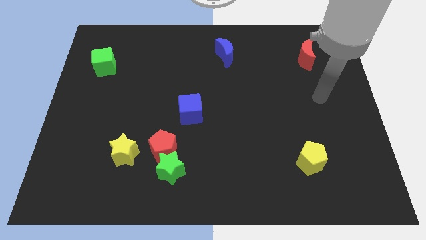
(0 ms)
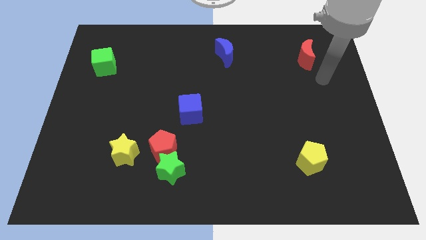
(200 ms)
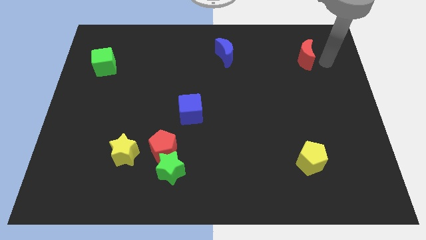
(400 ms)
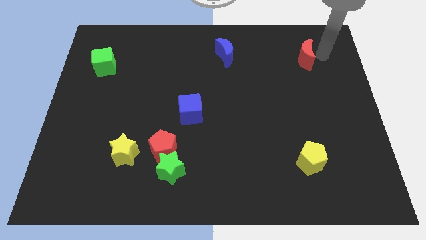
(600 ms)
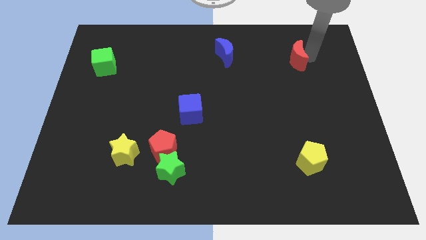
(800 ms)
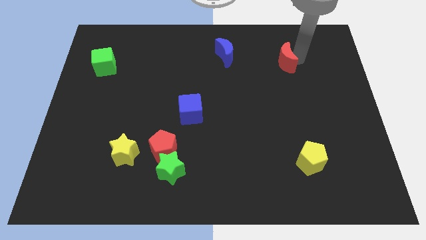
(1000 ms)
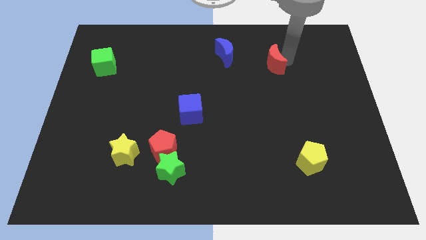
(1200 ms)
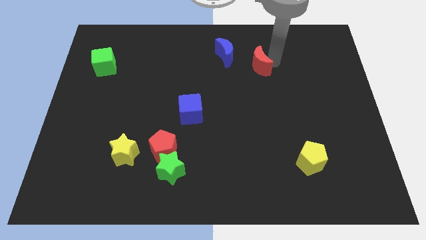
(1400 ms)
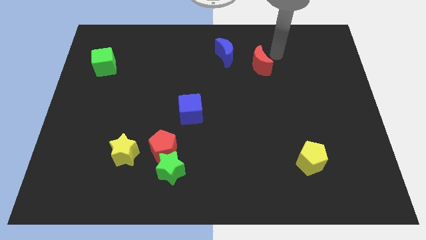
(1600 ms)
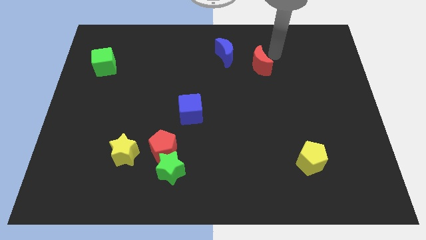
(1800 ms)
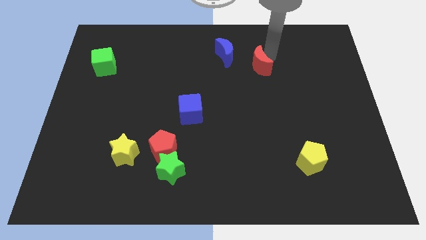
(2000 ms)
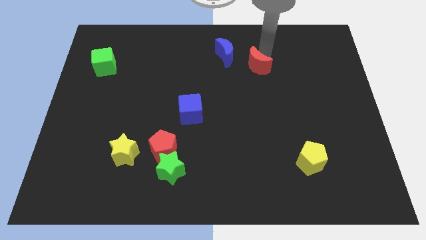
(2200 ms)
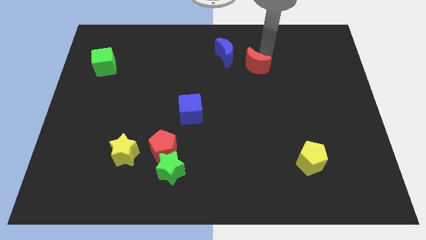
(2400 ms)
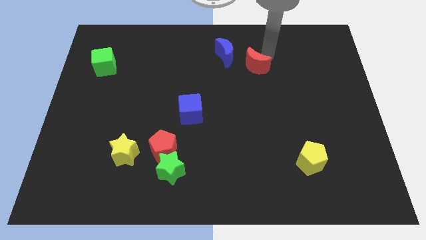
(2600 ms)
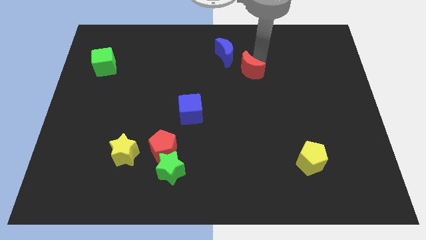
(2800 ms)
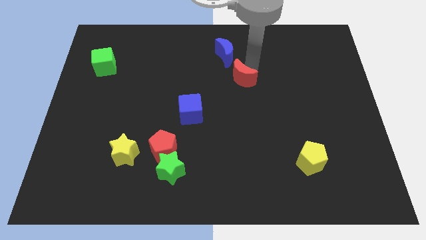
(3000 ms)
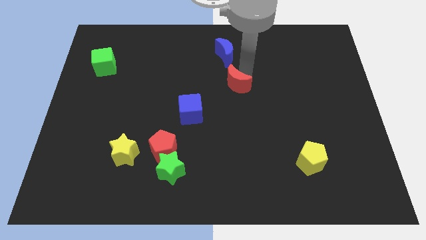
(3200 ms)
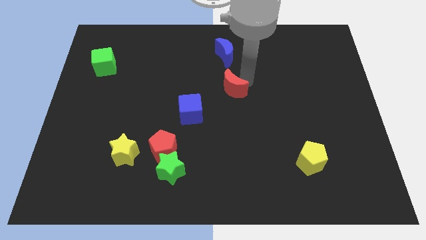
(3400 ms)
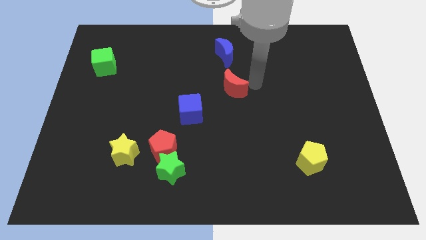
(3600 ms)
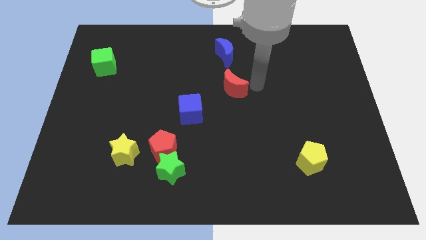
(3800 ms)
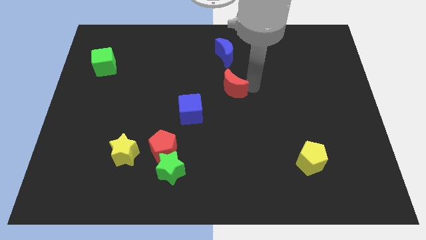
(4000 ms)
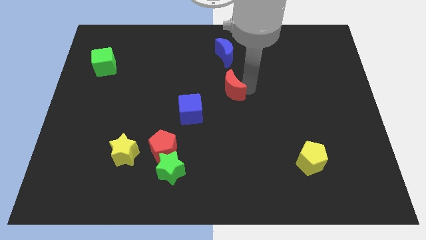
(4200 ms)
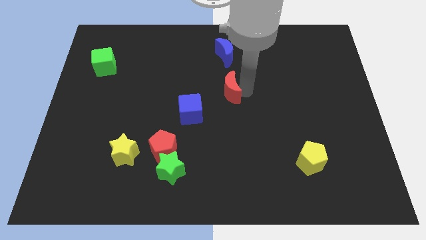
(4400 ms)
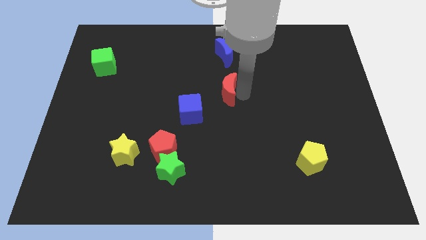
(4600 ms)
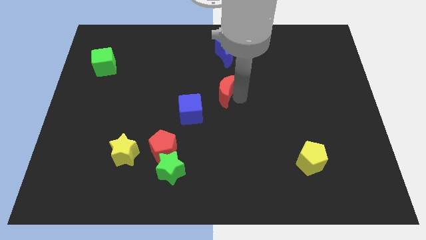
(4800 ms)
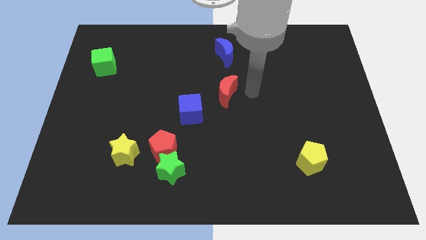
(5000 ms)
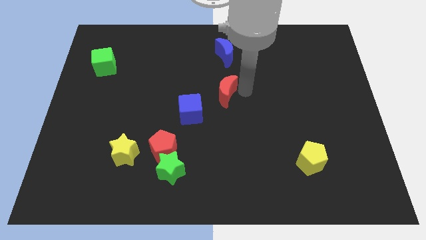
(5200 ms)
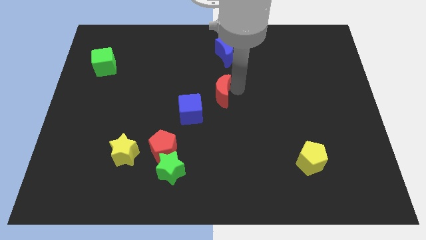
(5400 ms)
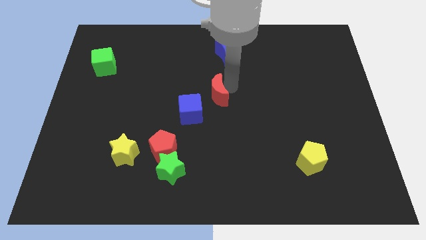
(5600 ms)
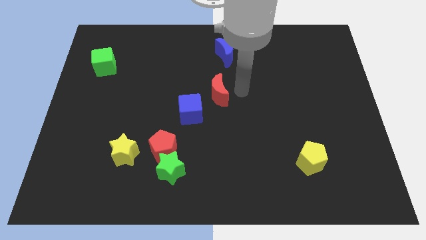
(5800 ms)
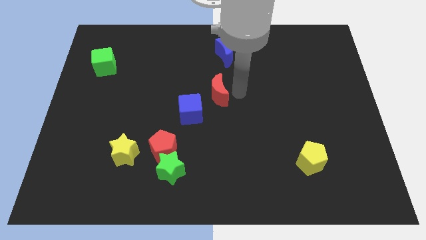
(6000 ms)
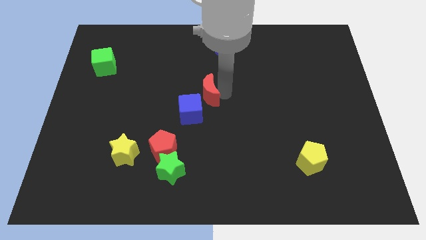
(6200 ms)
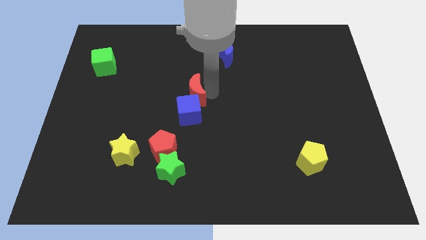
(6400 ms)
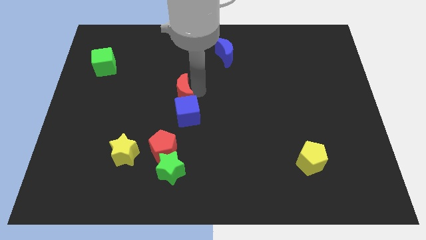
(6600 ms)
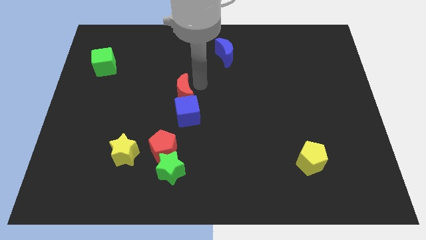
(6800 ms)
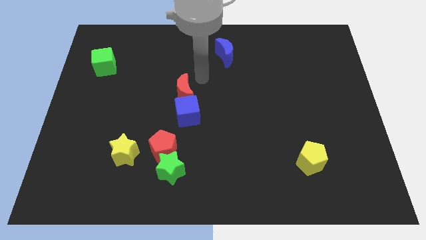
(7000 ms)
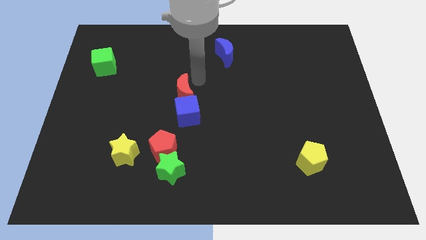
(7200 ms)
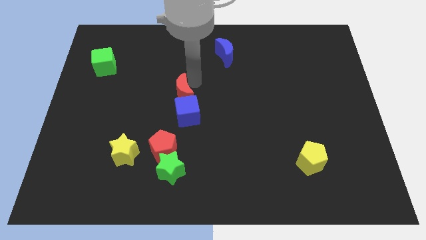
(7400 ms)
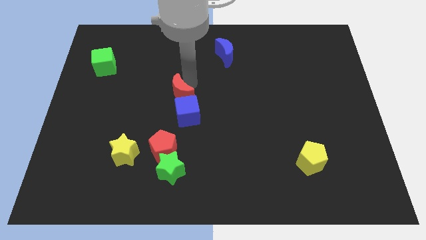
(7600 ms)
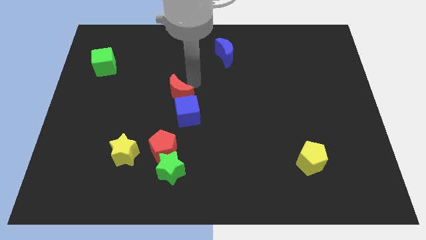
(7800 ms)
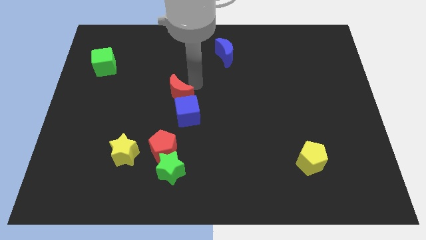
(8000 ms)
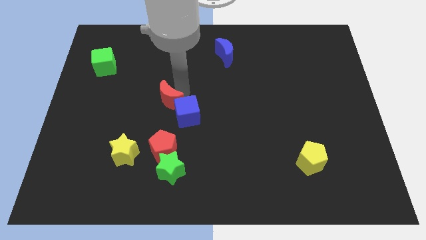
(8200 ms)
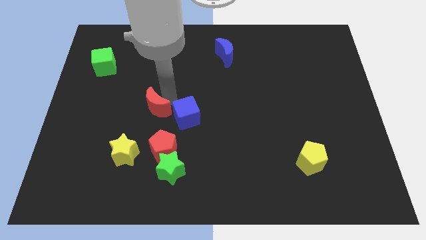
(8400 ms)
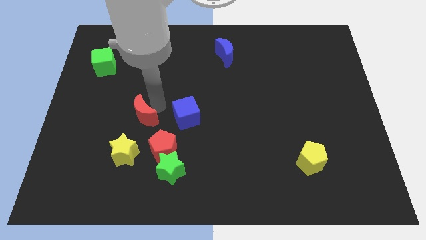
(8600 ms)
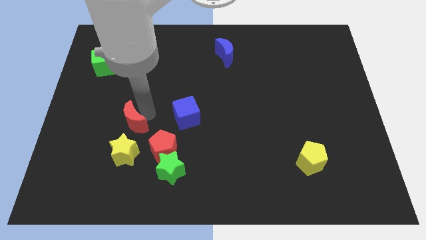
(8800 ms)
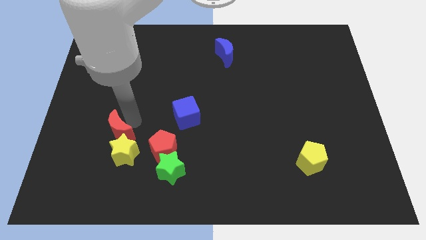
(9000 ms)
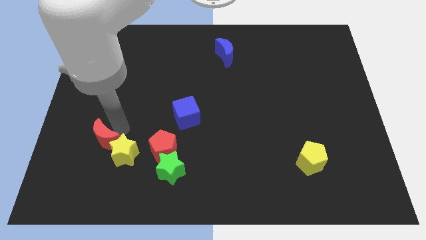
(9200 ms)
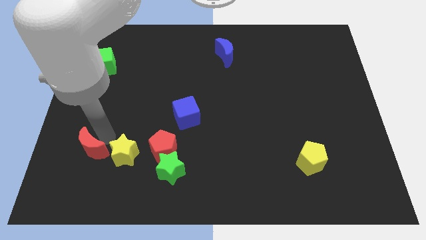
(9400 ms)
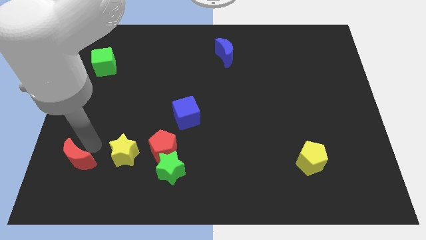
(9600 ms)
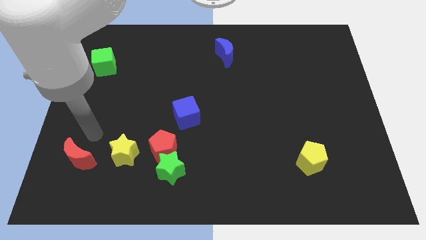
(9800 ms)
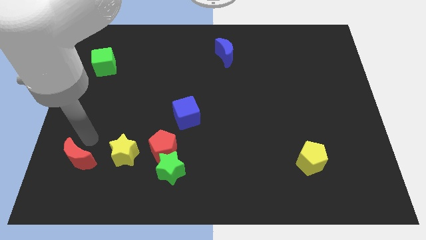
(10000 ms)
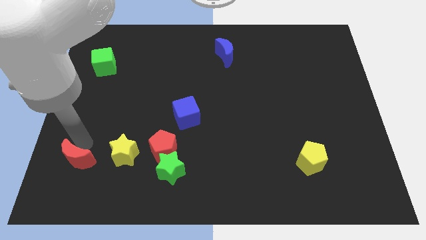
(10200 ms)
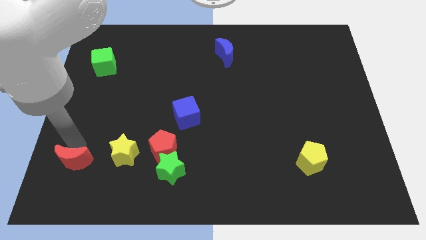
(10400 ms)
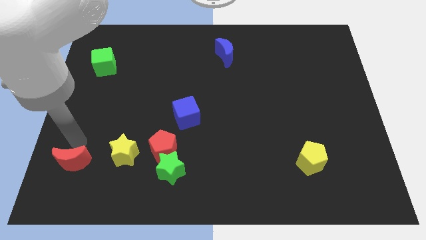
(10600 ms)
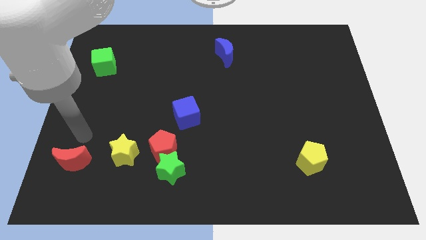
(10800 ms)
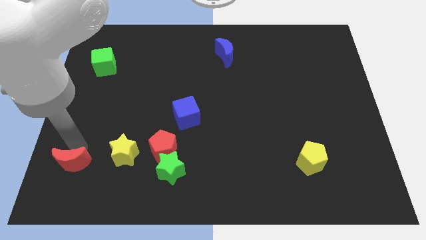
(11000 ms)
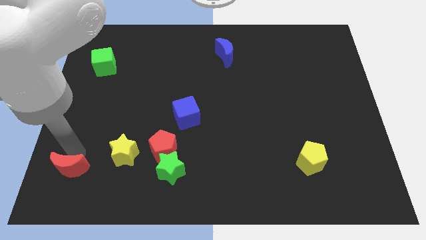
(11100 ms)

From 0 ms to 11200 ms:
push the red moon to the bottom left corner
